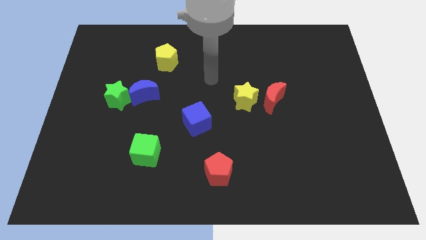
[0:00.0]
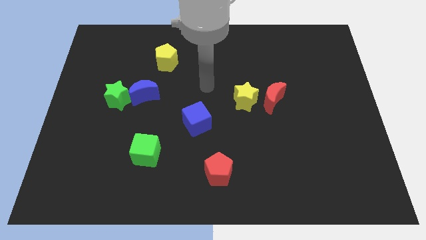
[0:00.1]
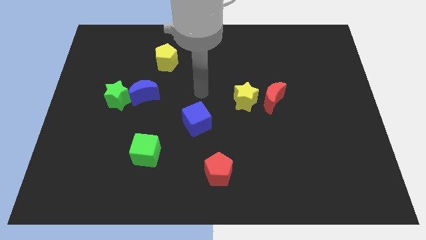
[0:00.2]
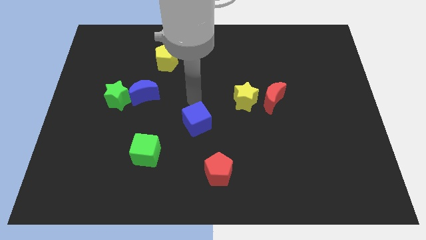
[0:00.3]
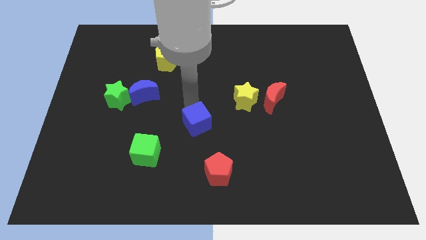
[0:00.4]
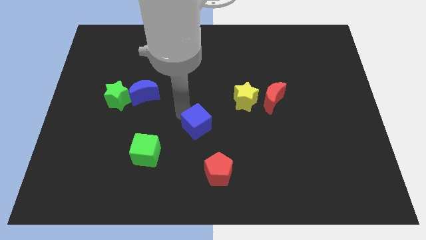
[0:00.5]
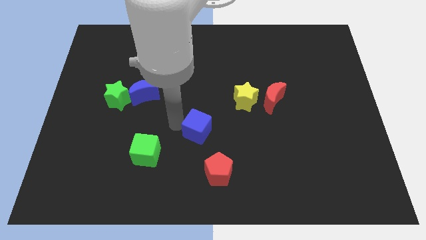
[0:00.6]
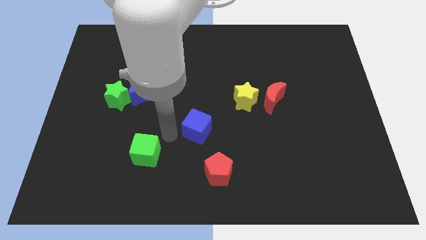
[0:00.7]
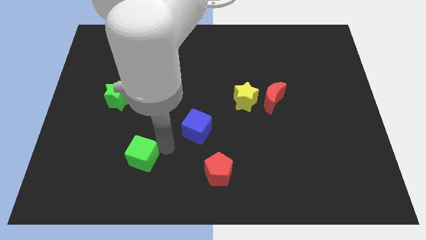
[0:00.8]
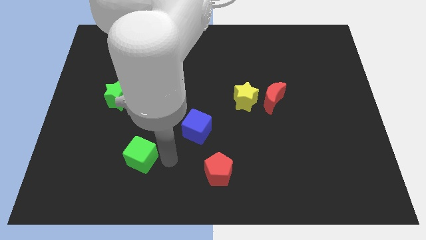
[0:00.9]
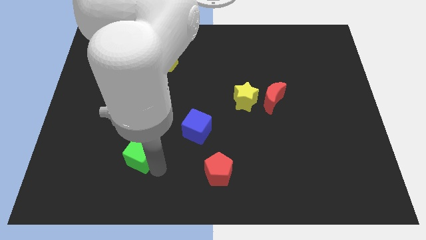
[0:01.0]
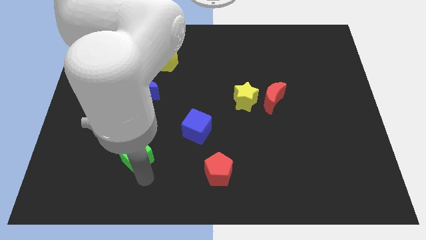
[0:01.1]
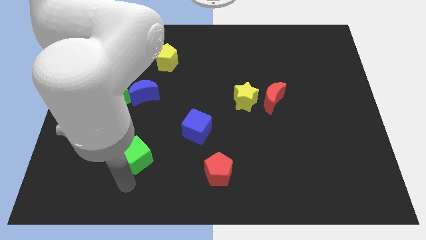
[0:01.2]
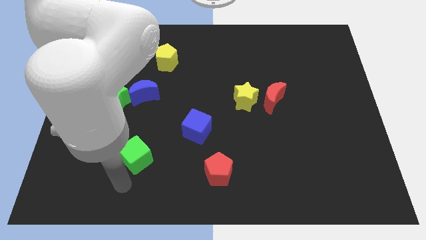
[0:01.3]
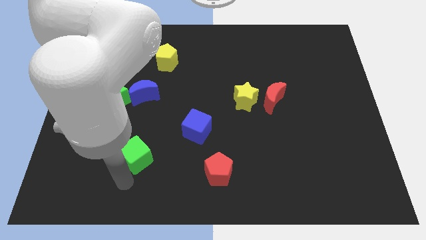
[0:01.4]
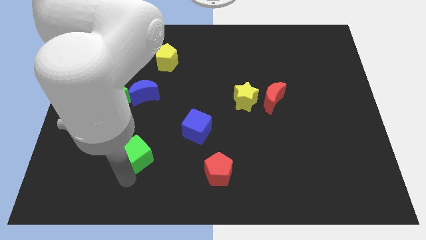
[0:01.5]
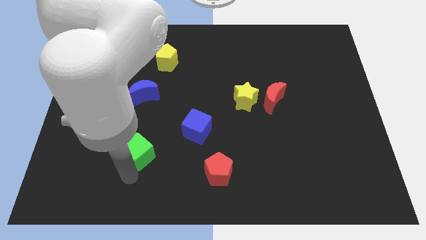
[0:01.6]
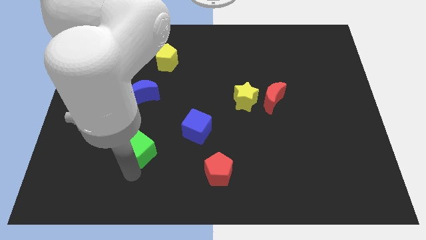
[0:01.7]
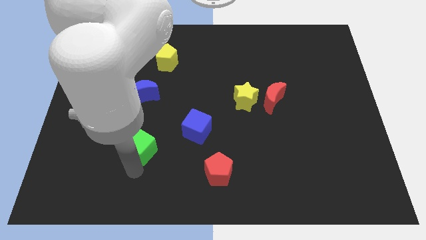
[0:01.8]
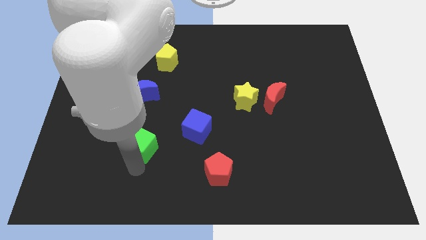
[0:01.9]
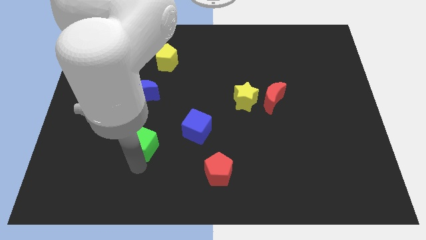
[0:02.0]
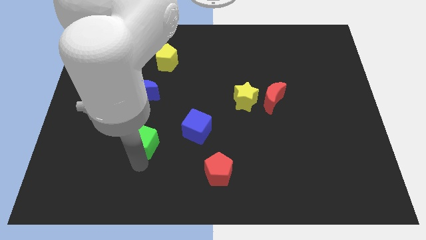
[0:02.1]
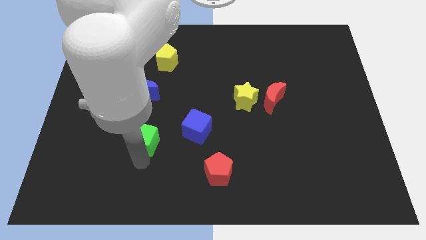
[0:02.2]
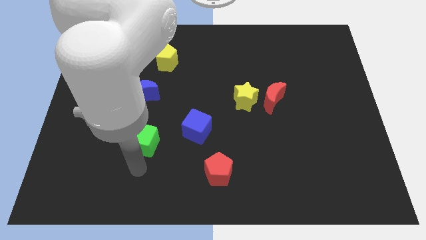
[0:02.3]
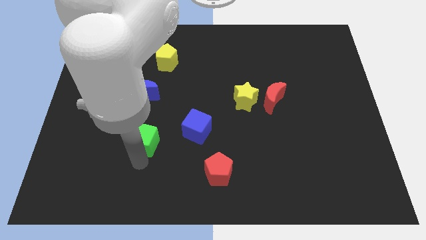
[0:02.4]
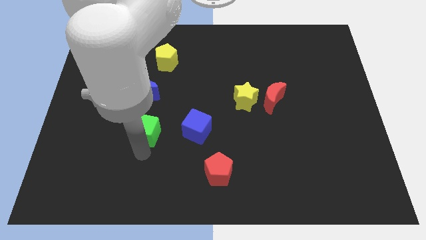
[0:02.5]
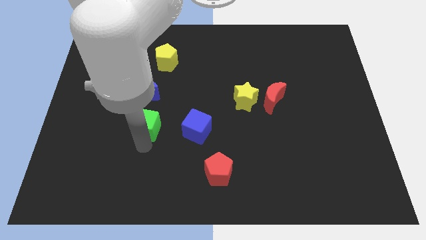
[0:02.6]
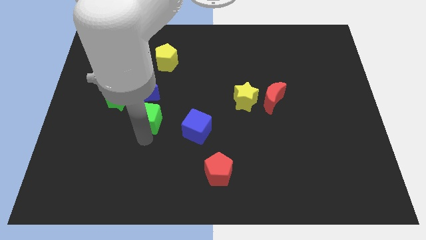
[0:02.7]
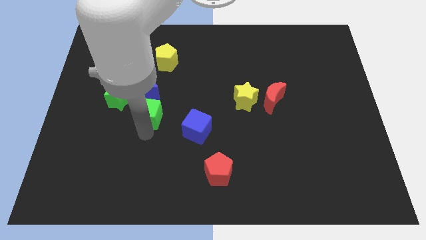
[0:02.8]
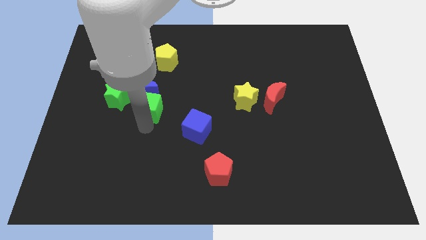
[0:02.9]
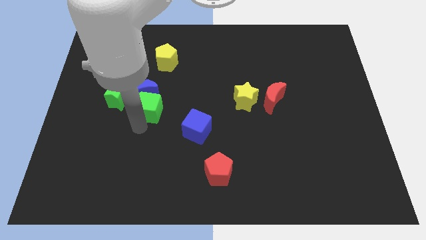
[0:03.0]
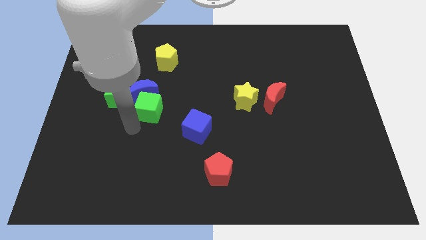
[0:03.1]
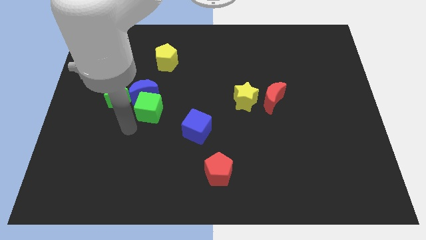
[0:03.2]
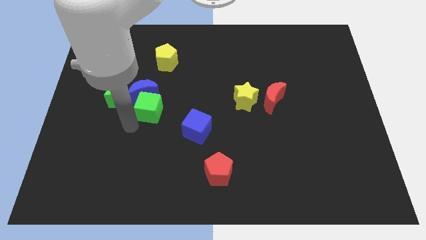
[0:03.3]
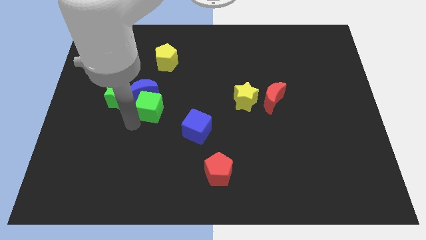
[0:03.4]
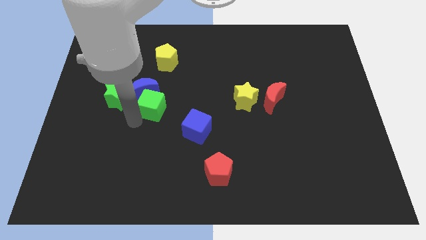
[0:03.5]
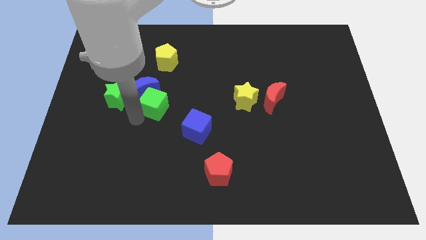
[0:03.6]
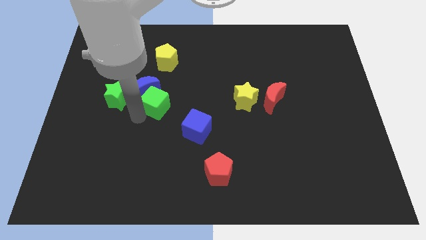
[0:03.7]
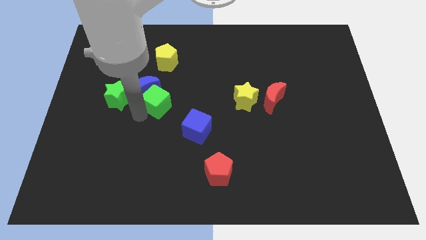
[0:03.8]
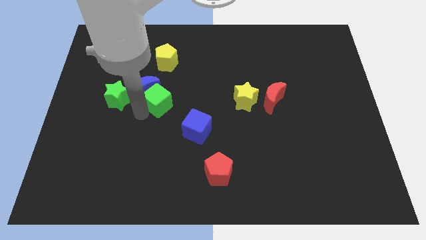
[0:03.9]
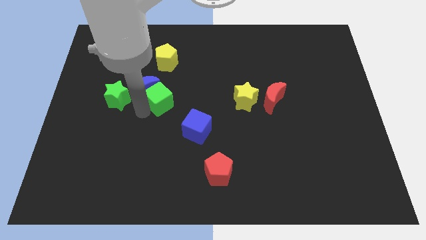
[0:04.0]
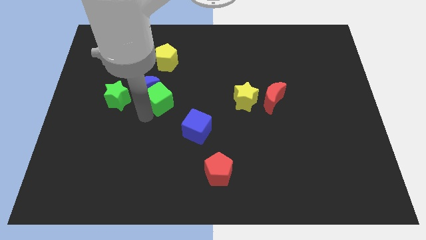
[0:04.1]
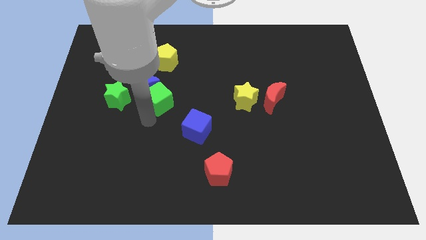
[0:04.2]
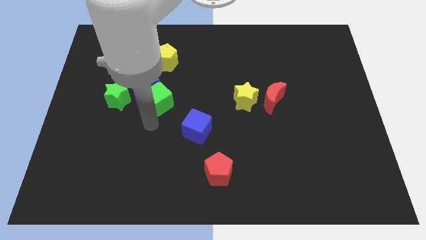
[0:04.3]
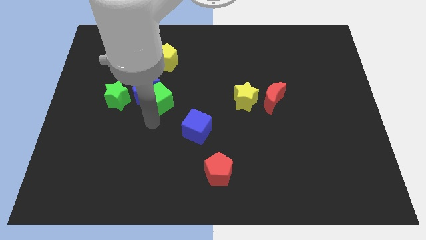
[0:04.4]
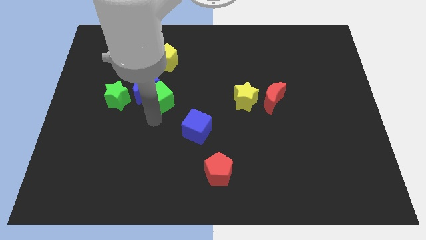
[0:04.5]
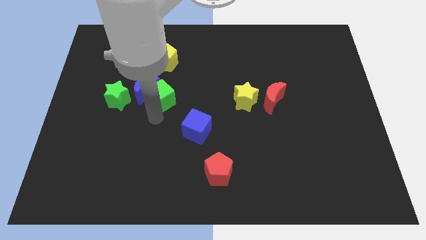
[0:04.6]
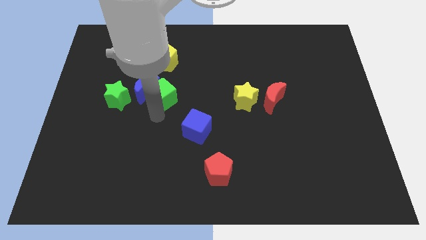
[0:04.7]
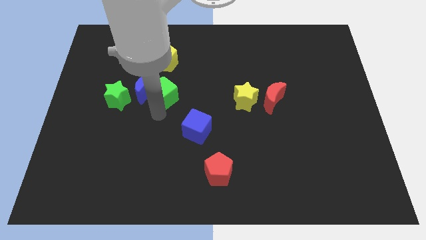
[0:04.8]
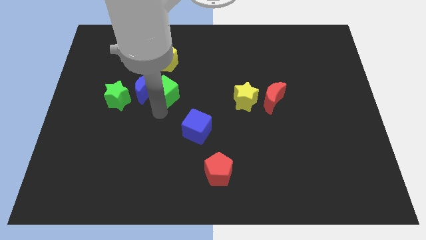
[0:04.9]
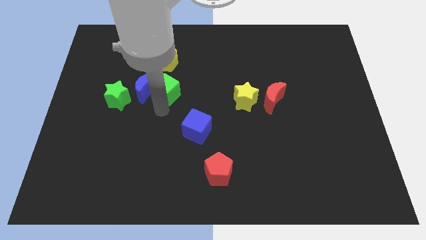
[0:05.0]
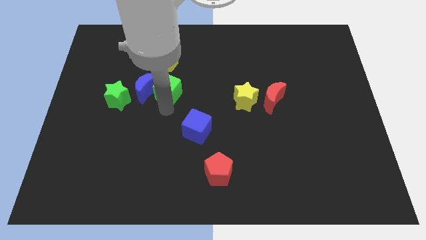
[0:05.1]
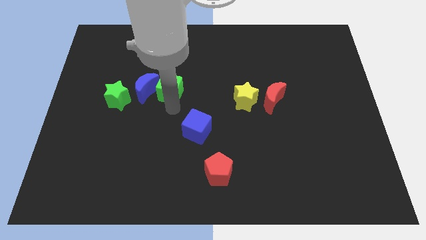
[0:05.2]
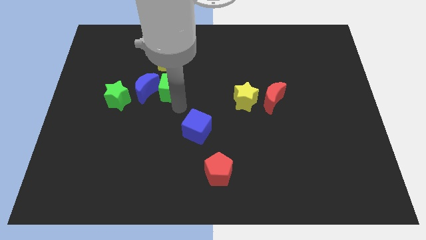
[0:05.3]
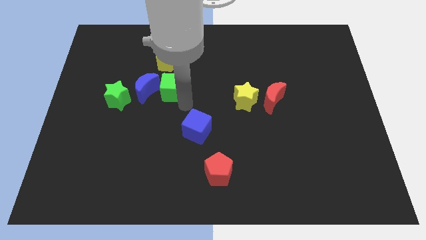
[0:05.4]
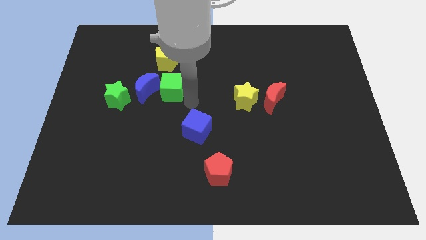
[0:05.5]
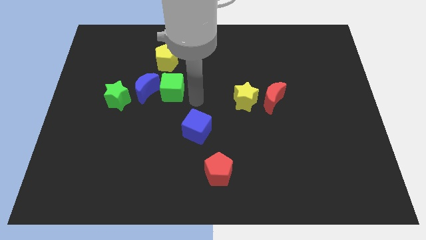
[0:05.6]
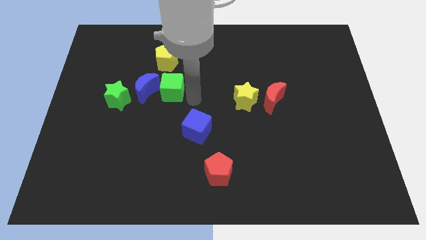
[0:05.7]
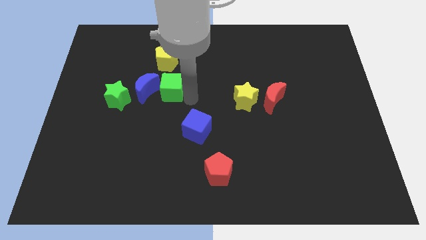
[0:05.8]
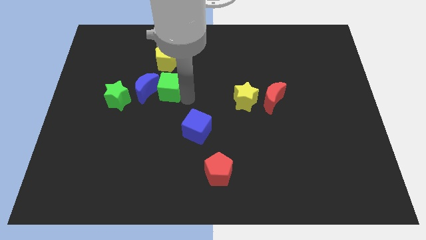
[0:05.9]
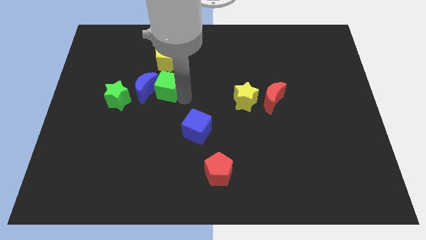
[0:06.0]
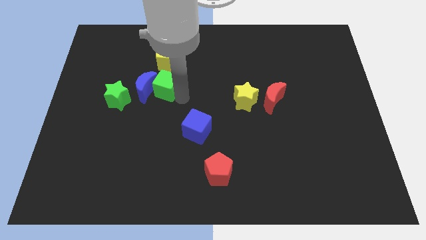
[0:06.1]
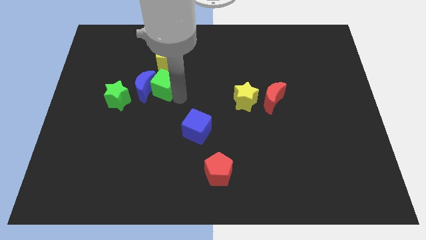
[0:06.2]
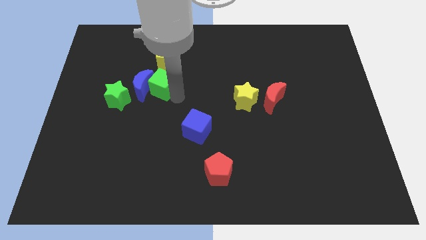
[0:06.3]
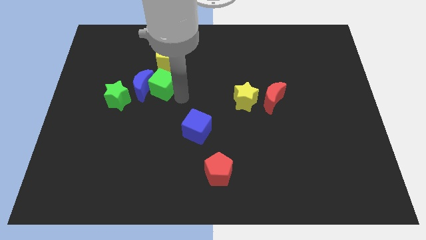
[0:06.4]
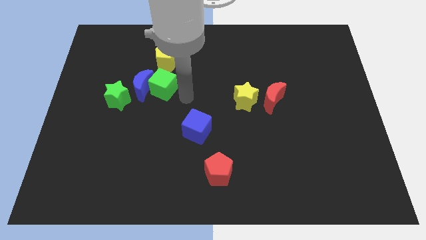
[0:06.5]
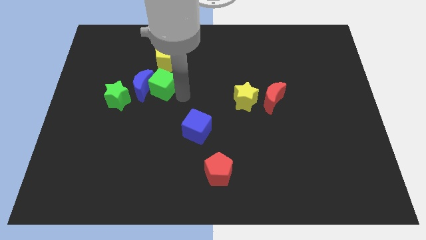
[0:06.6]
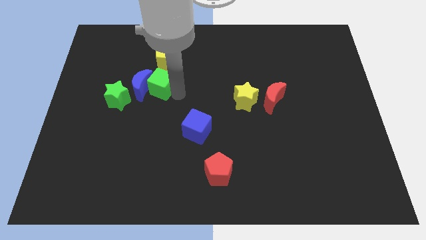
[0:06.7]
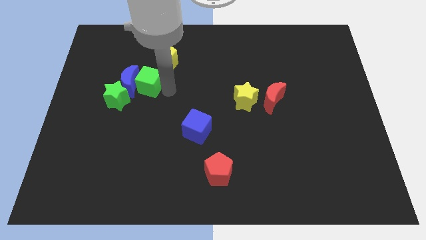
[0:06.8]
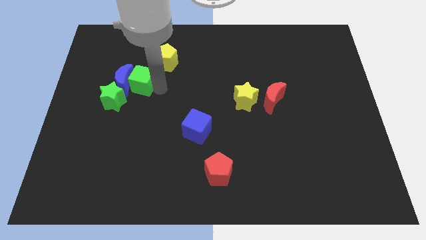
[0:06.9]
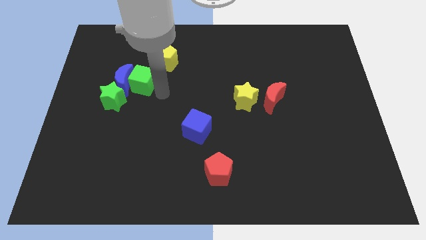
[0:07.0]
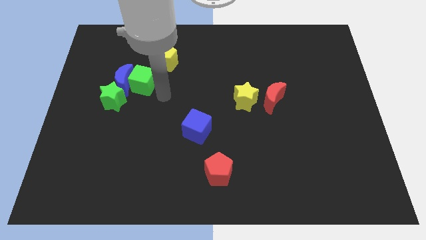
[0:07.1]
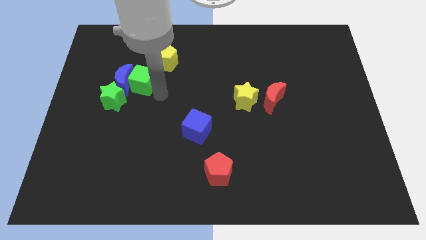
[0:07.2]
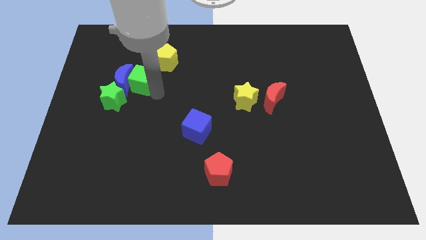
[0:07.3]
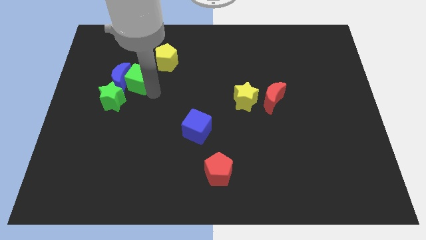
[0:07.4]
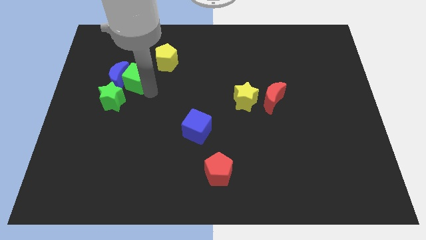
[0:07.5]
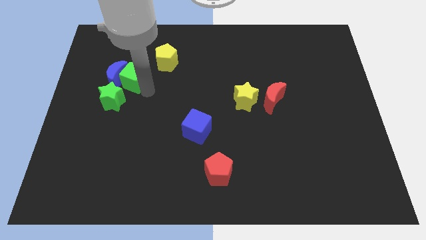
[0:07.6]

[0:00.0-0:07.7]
put the green cube to the top side of the green star
